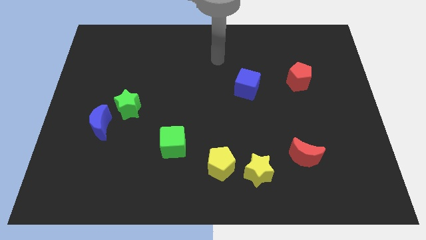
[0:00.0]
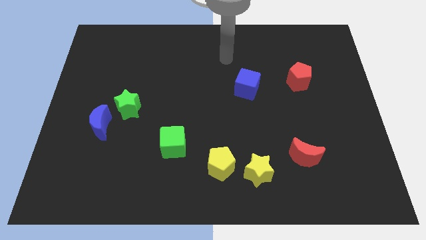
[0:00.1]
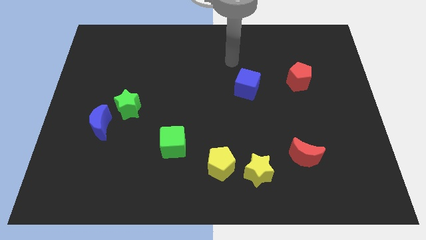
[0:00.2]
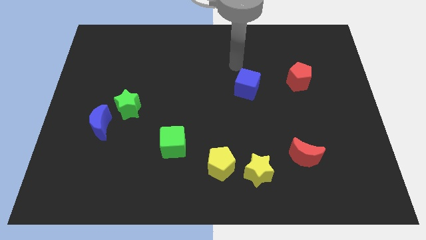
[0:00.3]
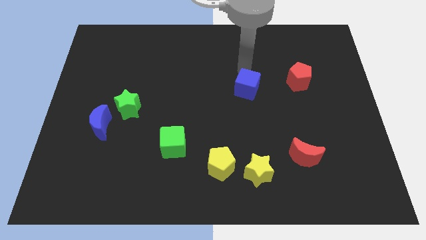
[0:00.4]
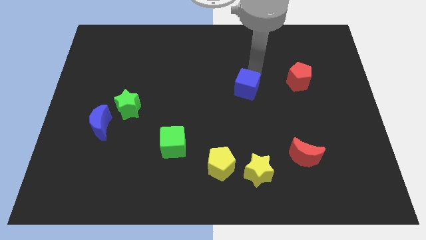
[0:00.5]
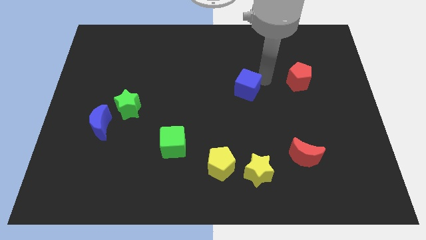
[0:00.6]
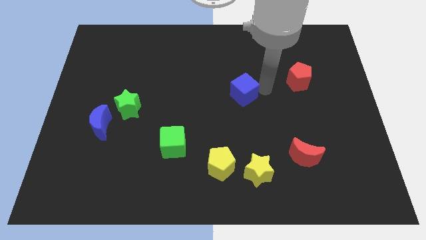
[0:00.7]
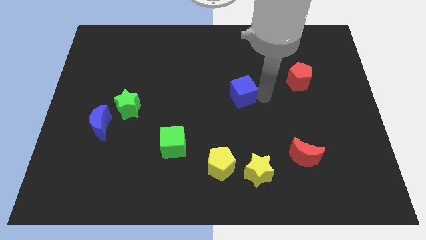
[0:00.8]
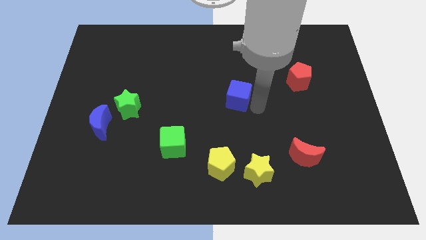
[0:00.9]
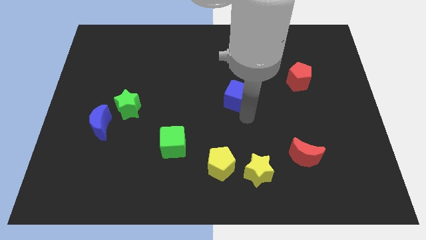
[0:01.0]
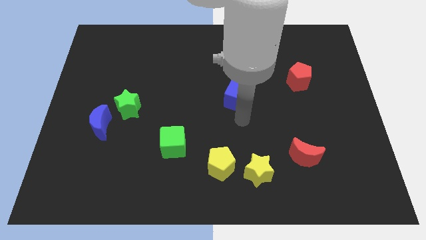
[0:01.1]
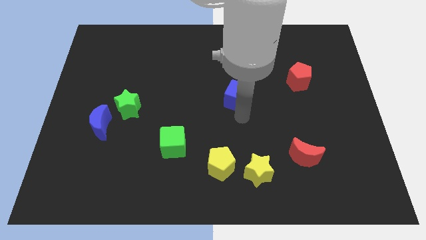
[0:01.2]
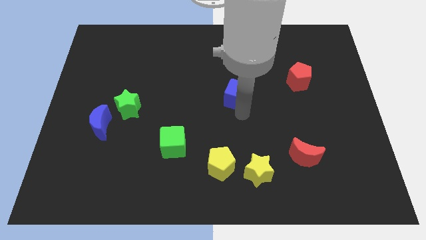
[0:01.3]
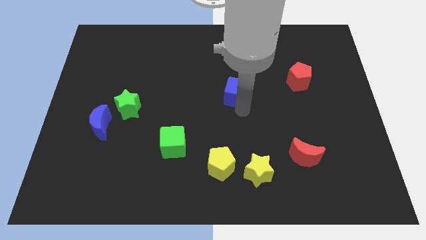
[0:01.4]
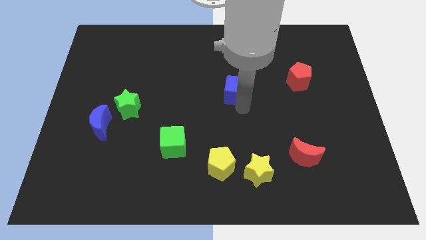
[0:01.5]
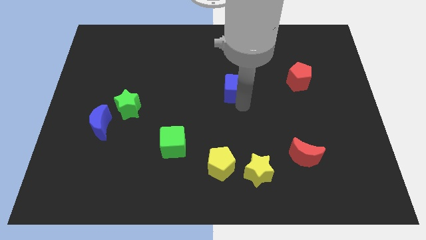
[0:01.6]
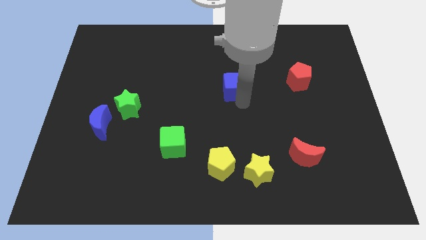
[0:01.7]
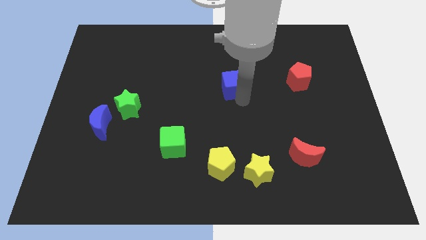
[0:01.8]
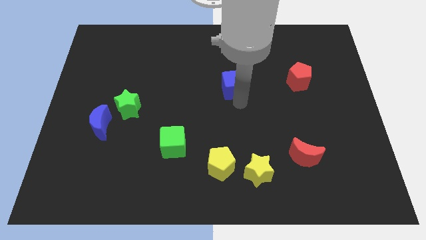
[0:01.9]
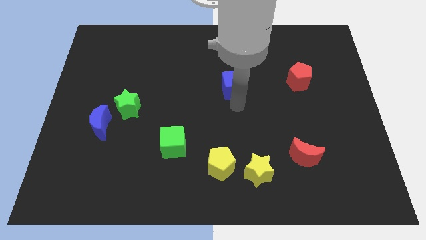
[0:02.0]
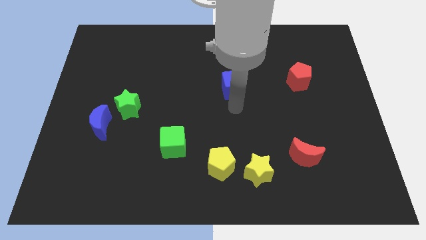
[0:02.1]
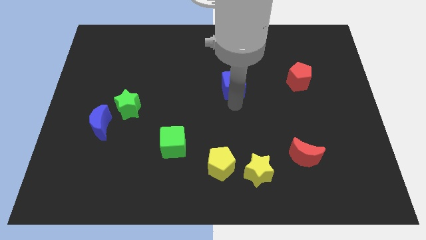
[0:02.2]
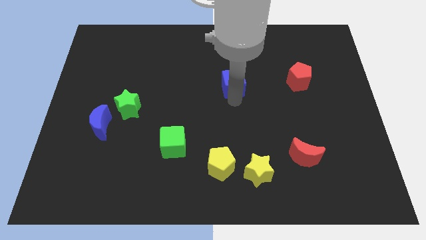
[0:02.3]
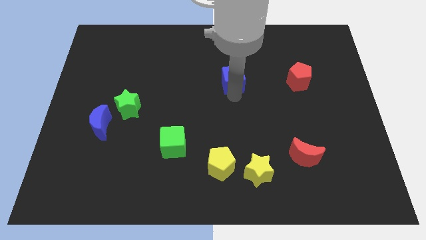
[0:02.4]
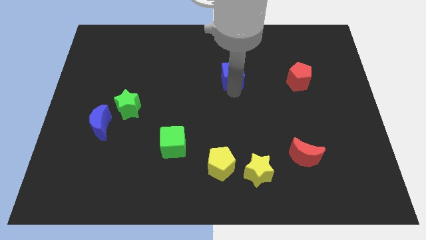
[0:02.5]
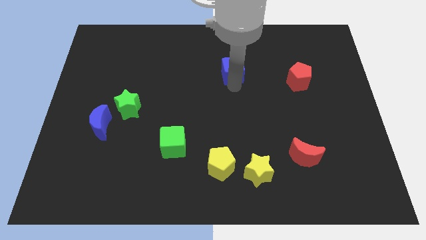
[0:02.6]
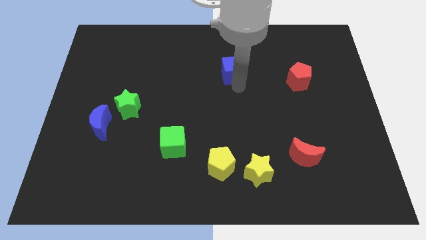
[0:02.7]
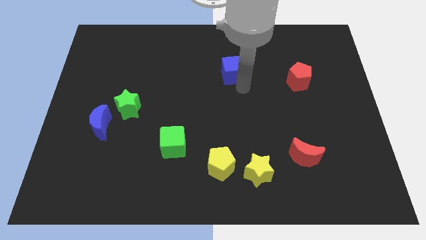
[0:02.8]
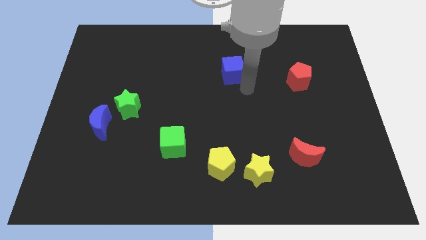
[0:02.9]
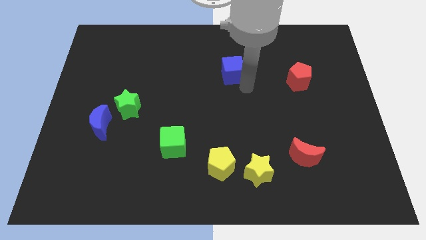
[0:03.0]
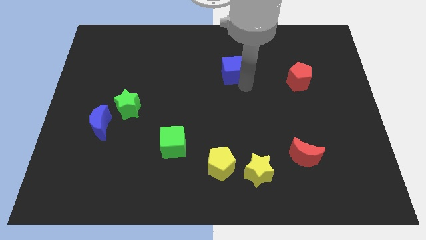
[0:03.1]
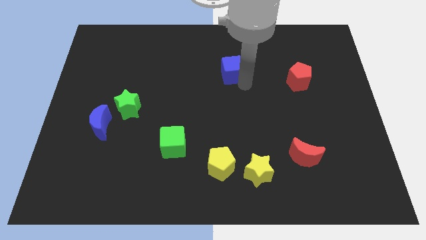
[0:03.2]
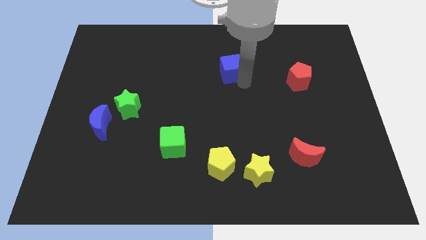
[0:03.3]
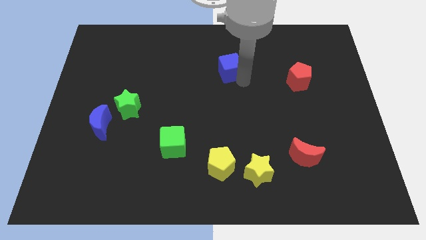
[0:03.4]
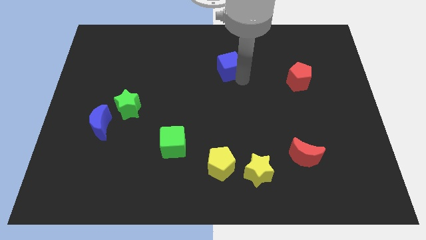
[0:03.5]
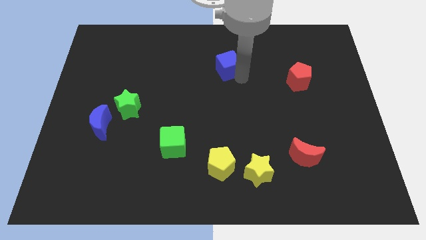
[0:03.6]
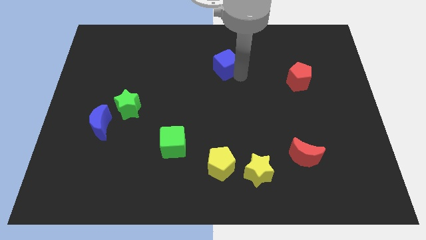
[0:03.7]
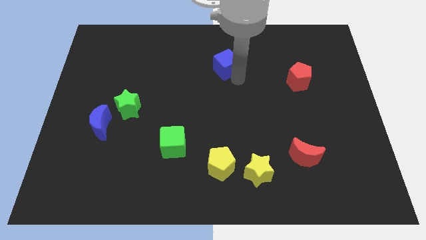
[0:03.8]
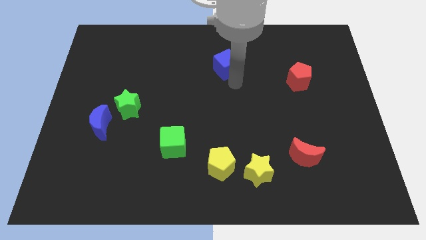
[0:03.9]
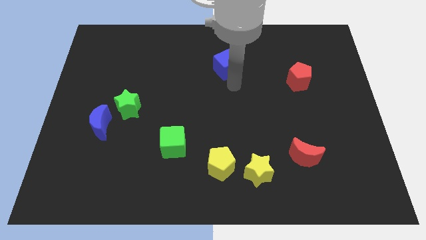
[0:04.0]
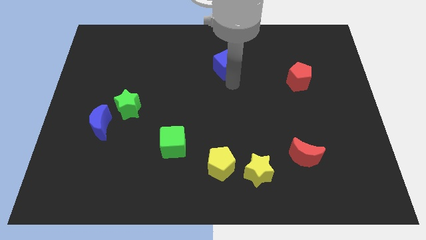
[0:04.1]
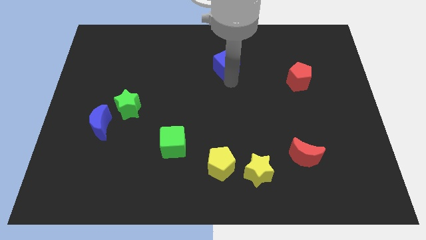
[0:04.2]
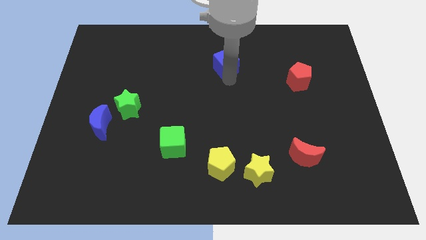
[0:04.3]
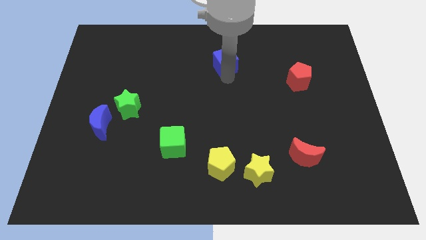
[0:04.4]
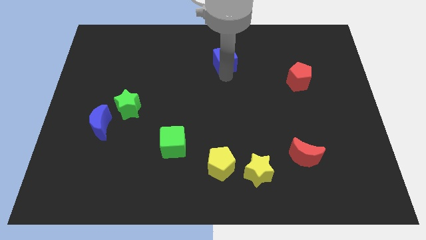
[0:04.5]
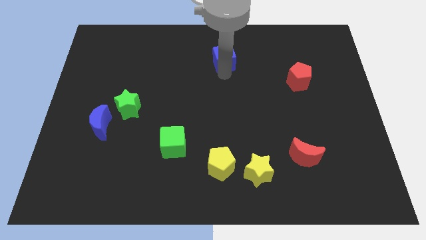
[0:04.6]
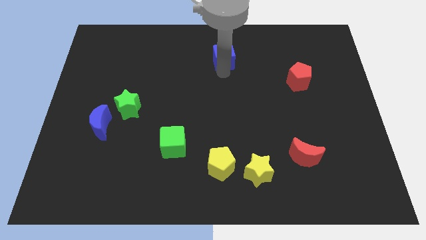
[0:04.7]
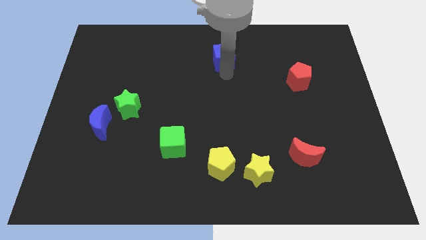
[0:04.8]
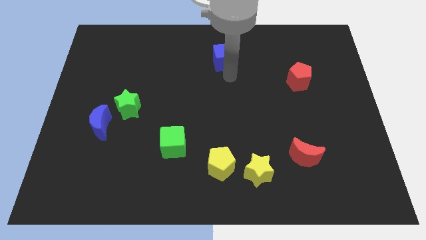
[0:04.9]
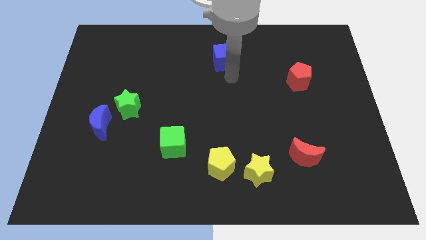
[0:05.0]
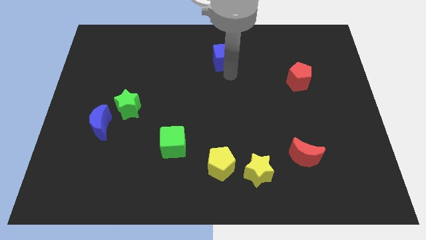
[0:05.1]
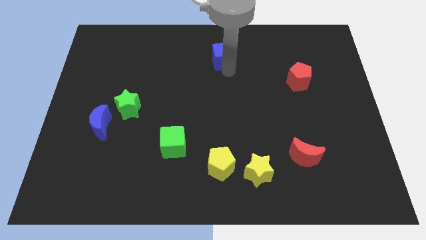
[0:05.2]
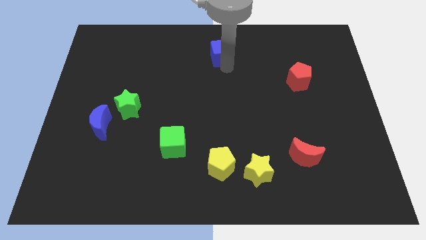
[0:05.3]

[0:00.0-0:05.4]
push the blue cube to the top side
